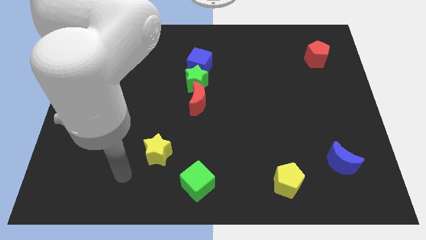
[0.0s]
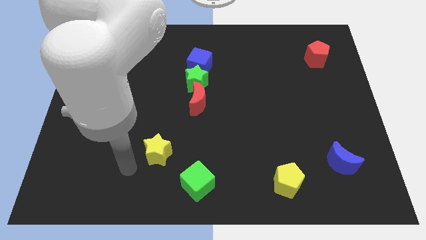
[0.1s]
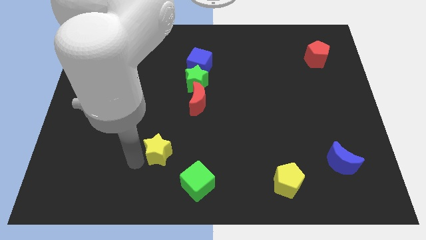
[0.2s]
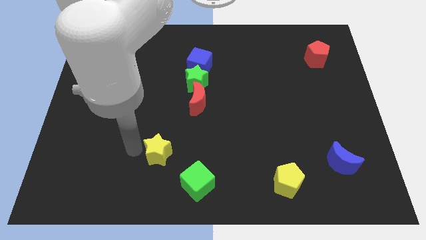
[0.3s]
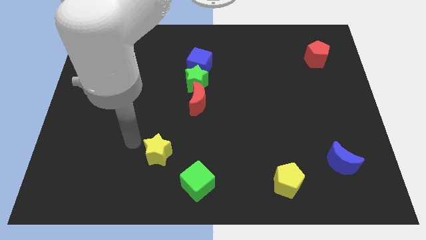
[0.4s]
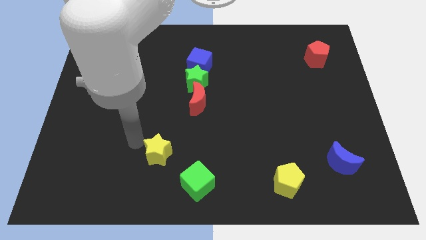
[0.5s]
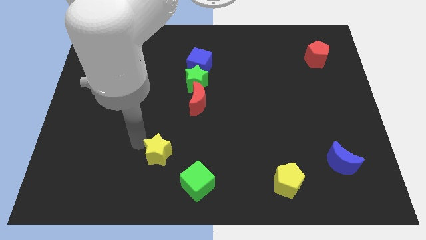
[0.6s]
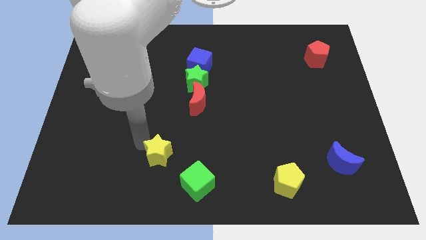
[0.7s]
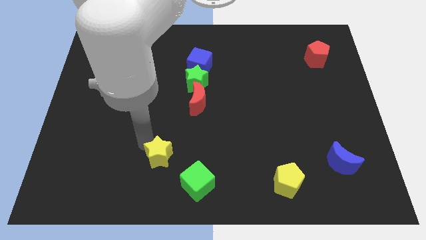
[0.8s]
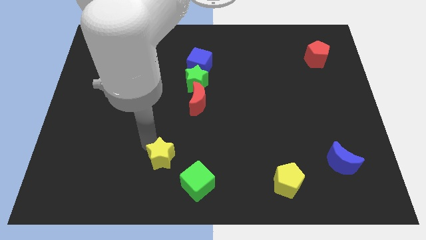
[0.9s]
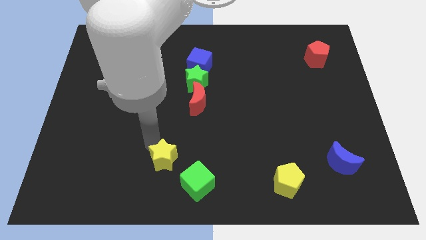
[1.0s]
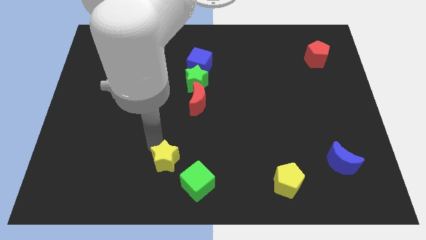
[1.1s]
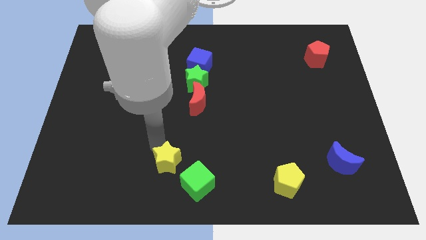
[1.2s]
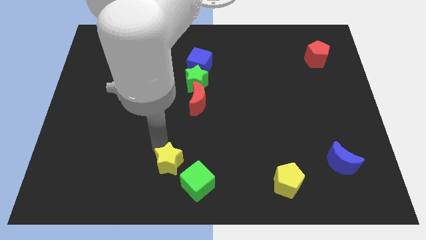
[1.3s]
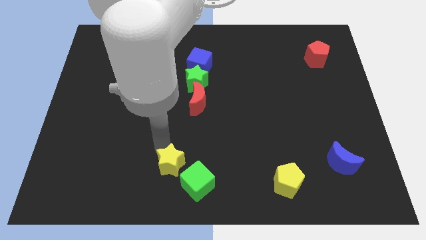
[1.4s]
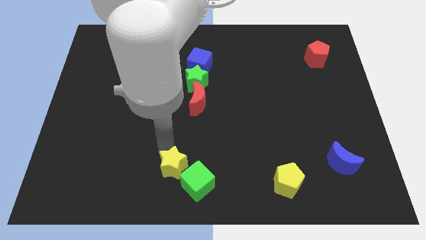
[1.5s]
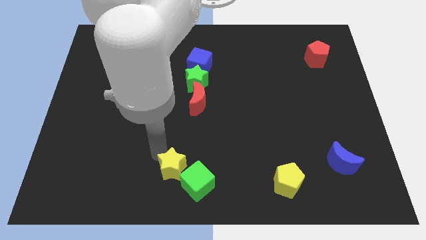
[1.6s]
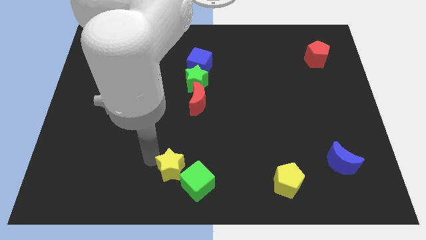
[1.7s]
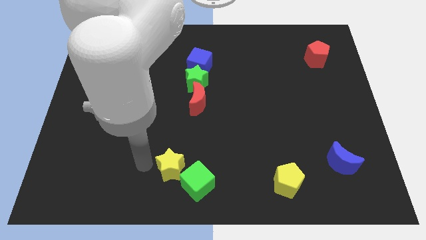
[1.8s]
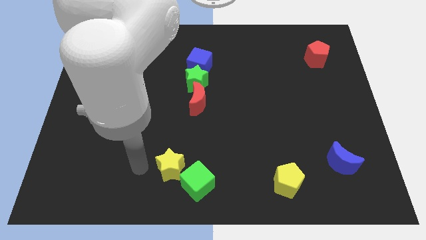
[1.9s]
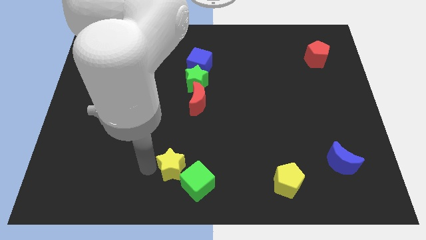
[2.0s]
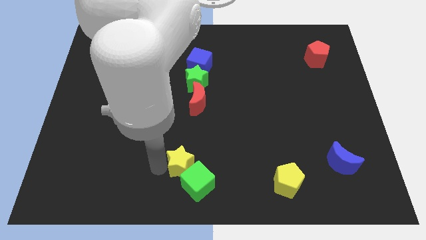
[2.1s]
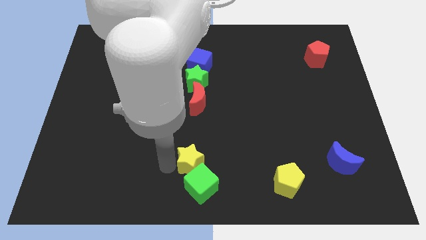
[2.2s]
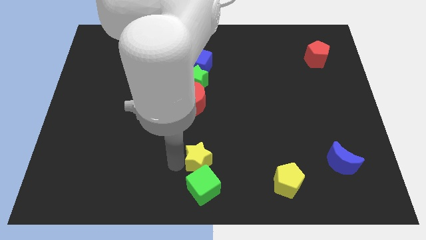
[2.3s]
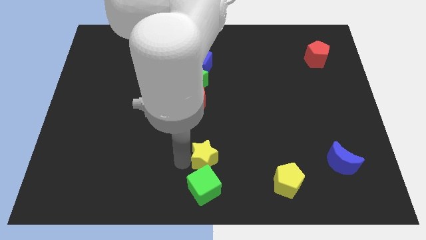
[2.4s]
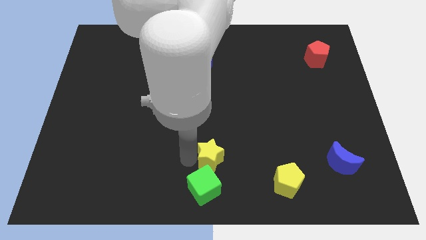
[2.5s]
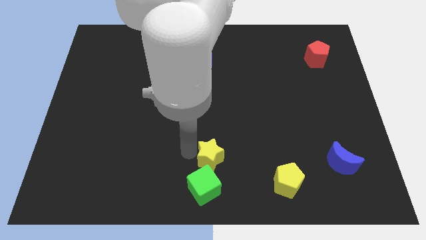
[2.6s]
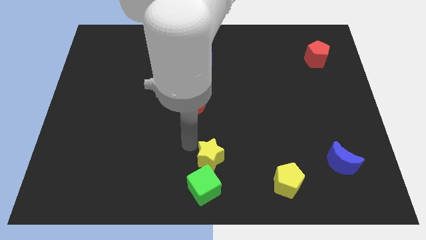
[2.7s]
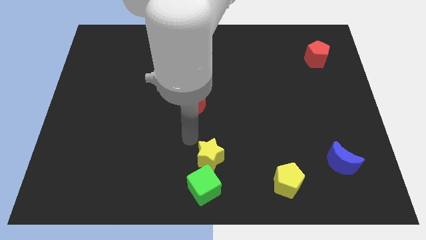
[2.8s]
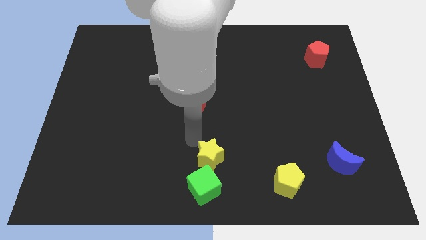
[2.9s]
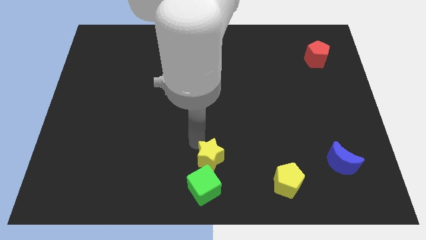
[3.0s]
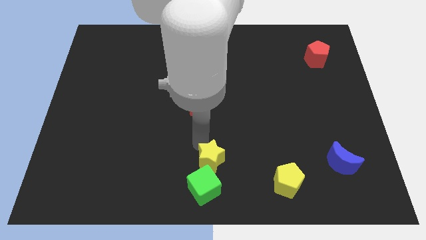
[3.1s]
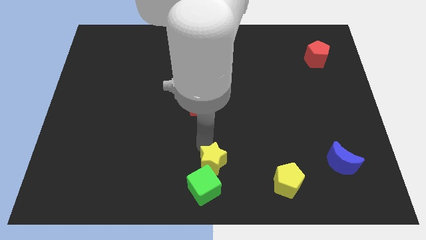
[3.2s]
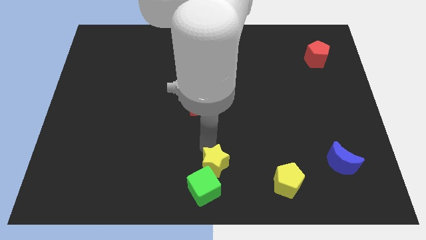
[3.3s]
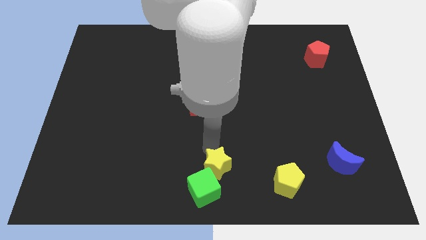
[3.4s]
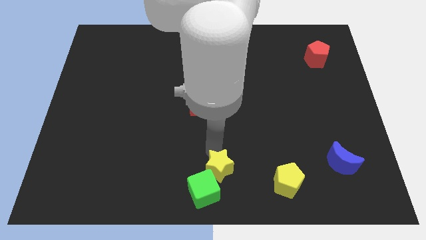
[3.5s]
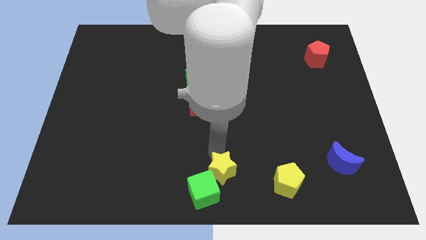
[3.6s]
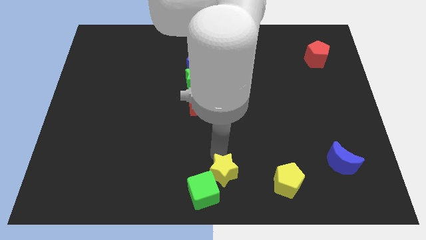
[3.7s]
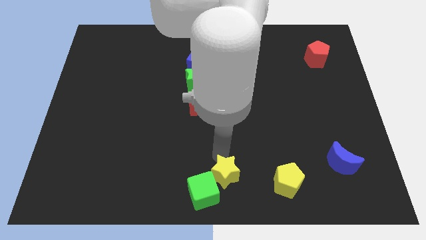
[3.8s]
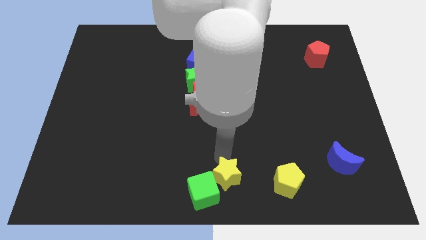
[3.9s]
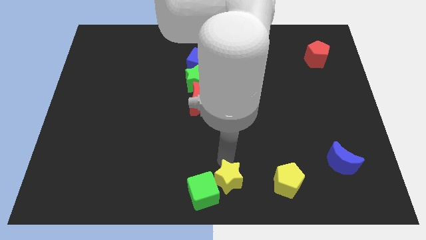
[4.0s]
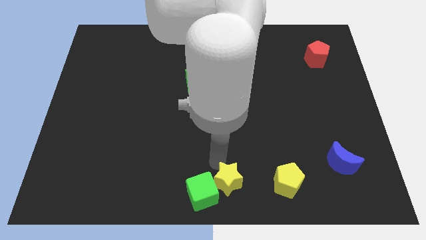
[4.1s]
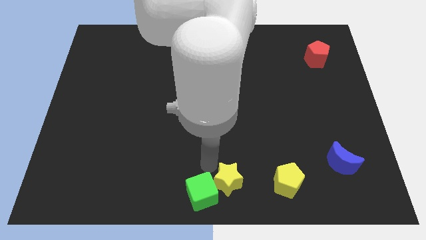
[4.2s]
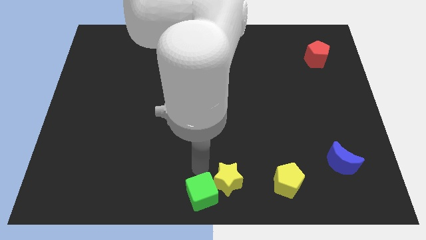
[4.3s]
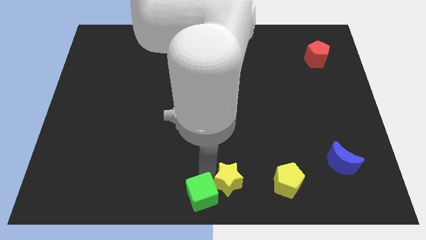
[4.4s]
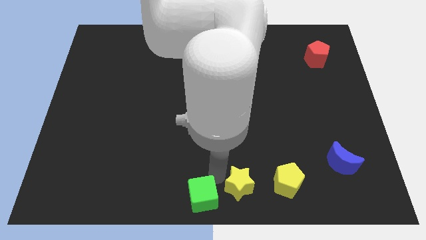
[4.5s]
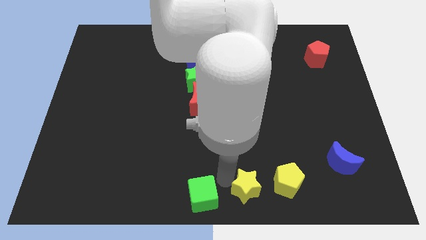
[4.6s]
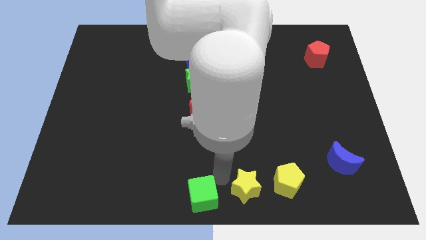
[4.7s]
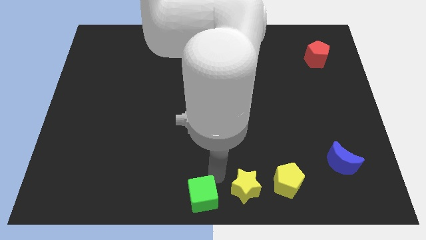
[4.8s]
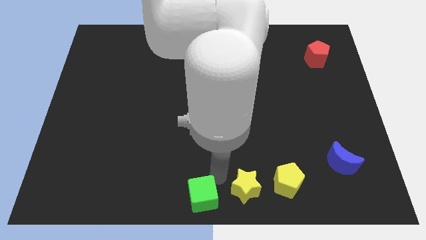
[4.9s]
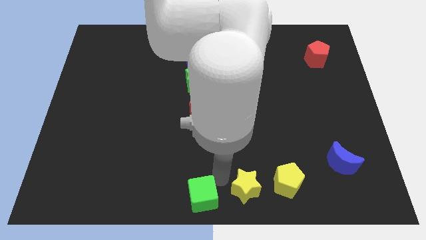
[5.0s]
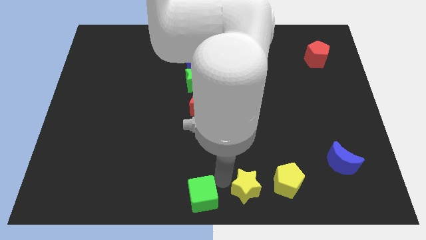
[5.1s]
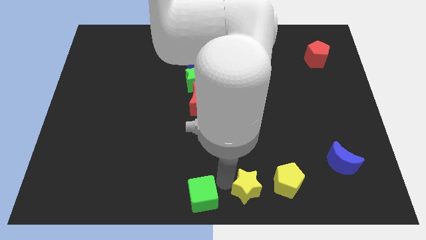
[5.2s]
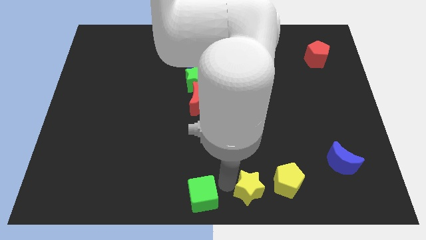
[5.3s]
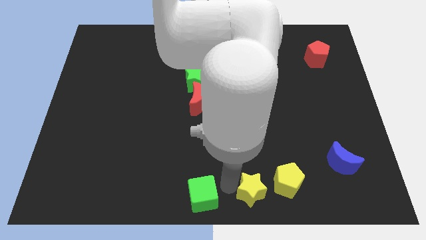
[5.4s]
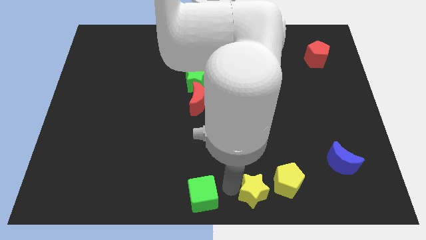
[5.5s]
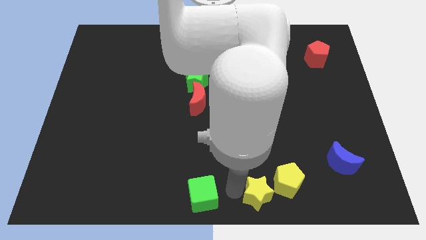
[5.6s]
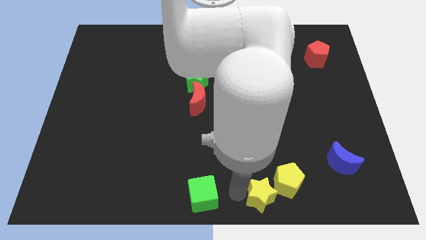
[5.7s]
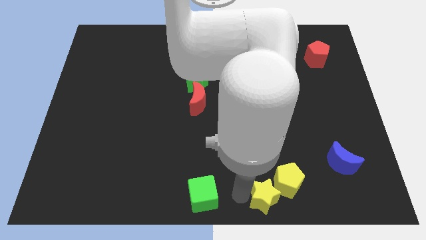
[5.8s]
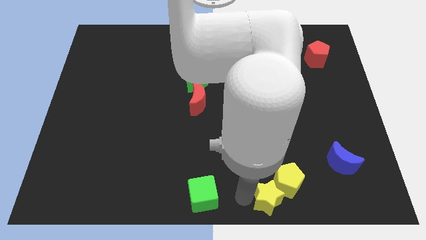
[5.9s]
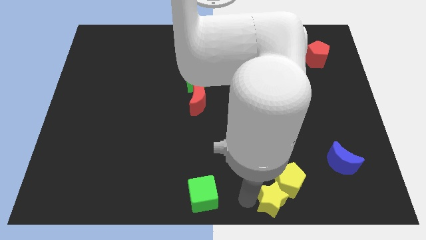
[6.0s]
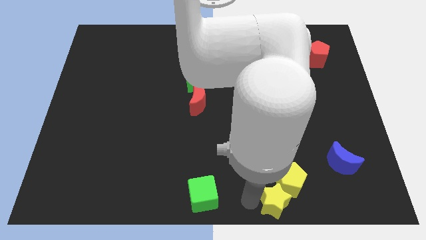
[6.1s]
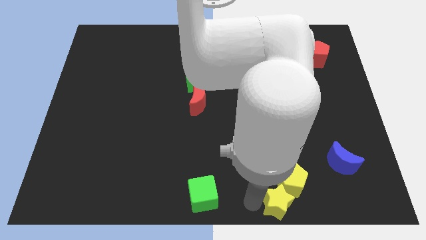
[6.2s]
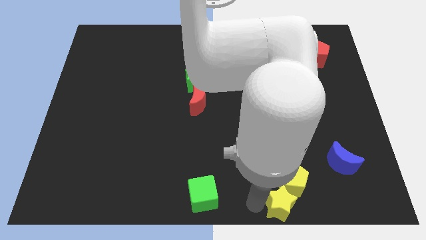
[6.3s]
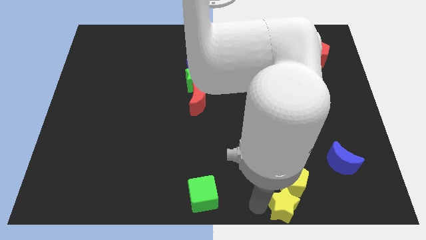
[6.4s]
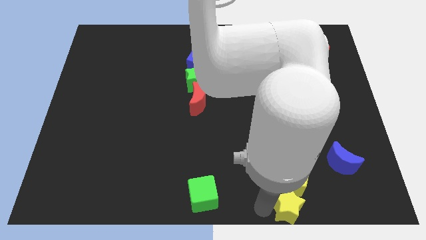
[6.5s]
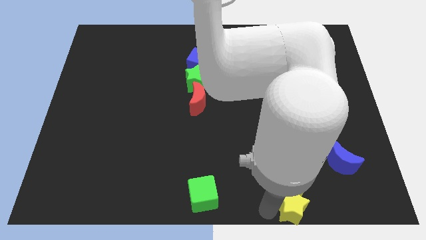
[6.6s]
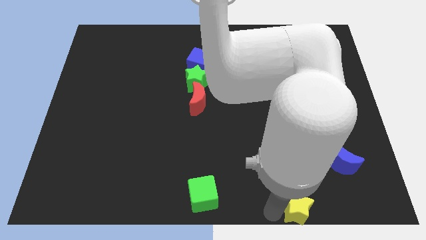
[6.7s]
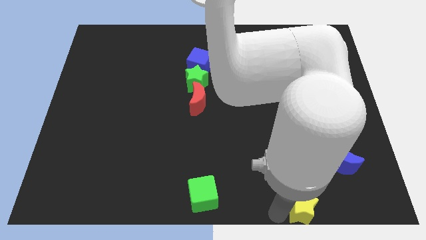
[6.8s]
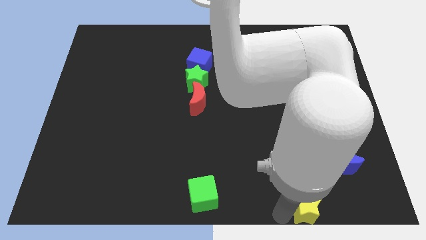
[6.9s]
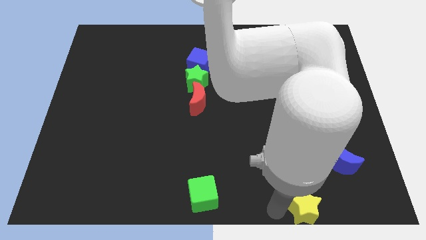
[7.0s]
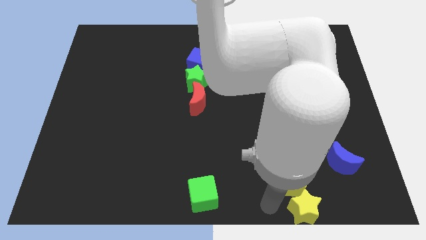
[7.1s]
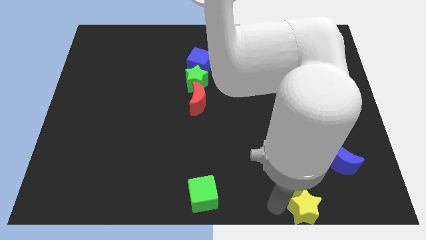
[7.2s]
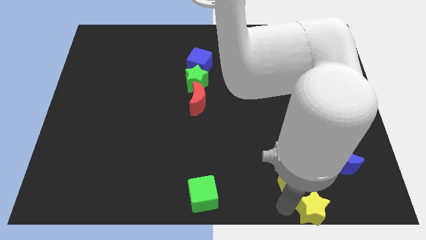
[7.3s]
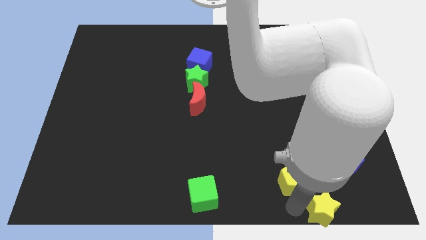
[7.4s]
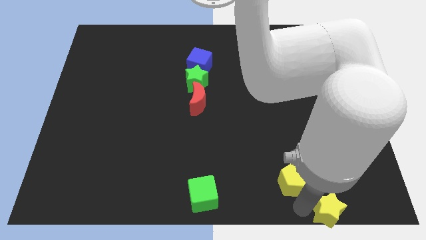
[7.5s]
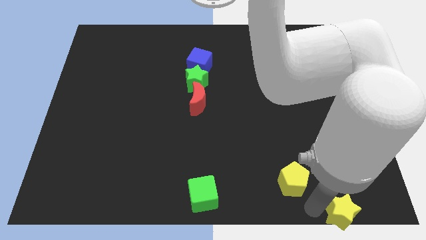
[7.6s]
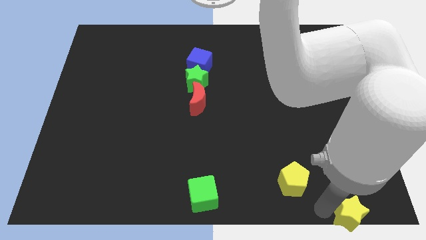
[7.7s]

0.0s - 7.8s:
move the yellow star to the bottom right of the board
